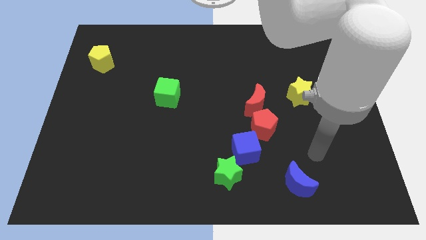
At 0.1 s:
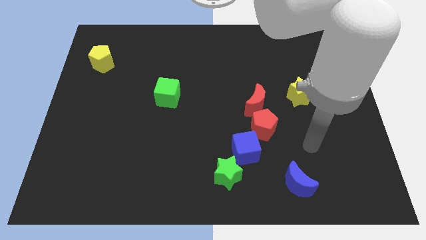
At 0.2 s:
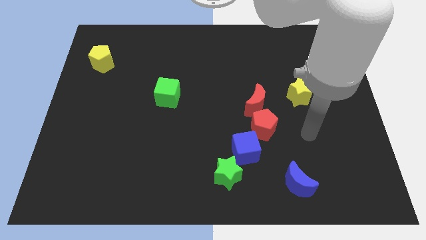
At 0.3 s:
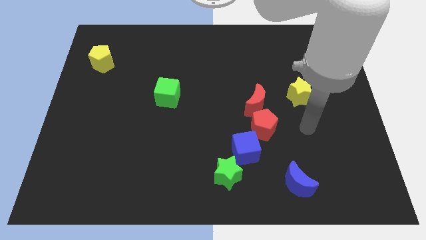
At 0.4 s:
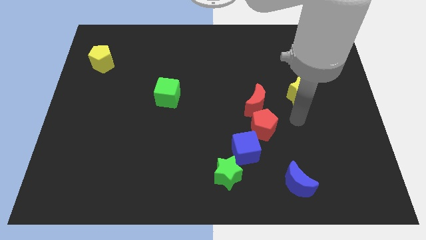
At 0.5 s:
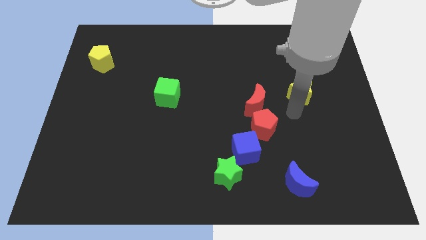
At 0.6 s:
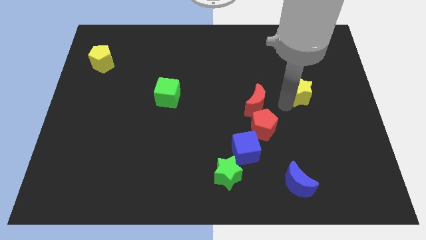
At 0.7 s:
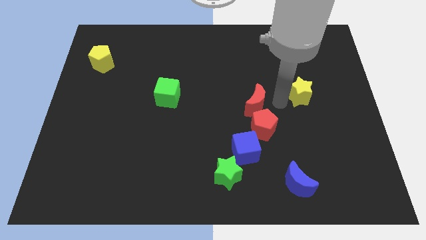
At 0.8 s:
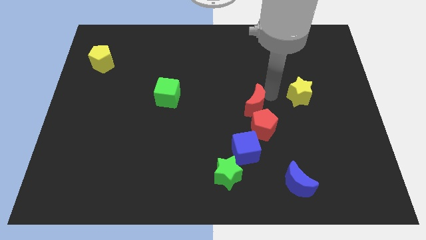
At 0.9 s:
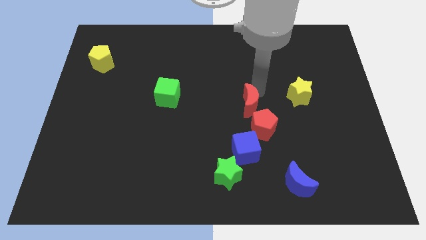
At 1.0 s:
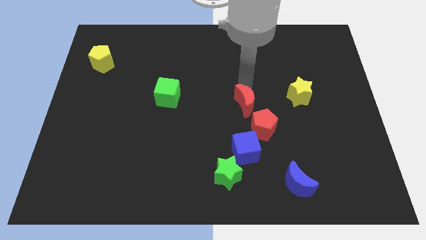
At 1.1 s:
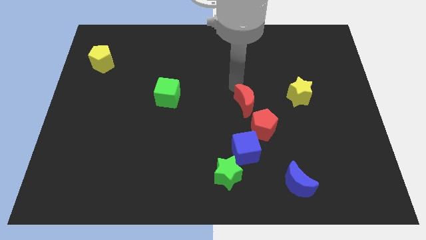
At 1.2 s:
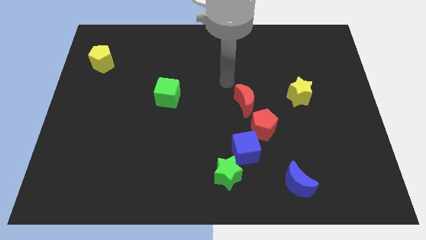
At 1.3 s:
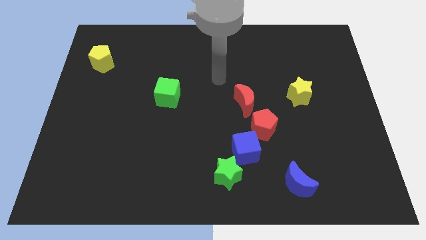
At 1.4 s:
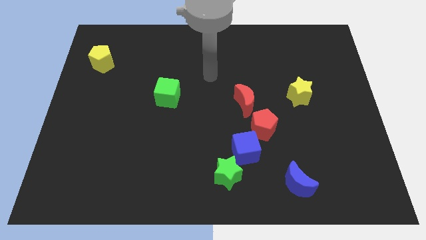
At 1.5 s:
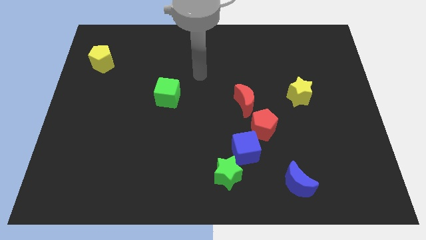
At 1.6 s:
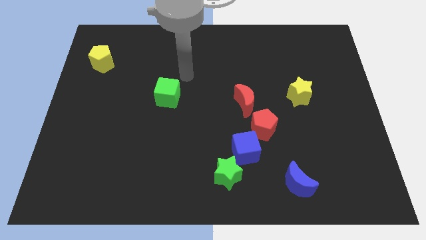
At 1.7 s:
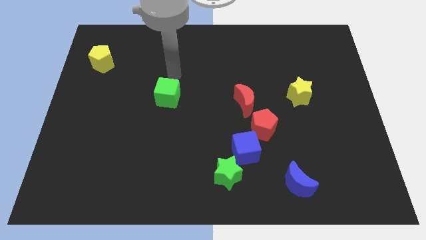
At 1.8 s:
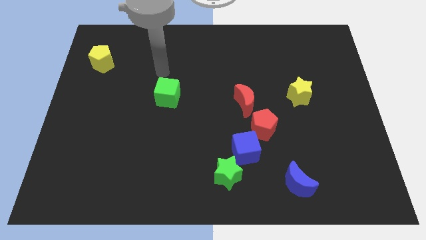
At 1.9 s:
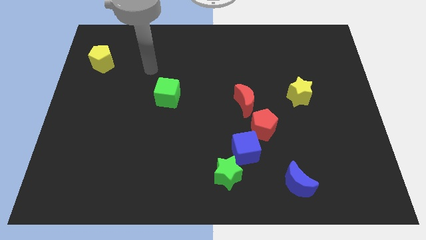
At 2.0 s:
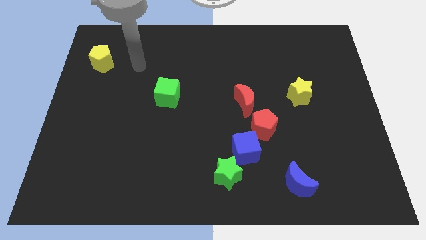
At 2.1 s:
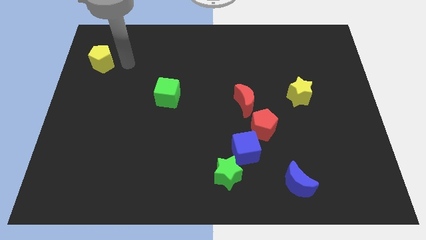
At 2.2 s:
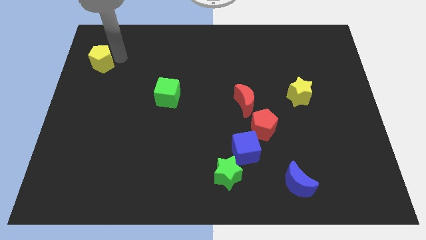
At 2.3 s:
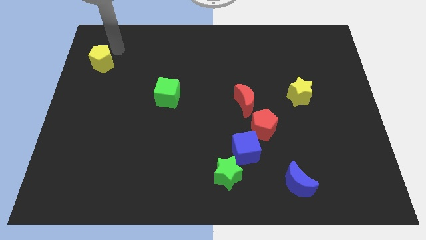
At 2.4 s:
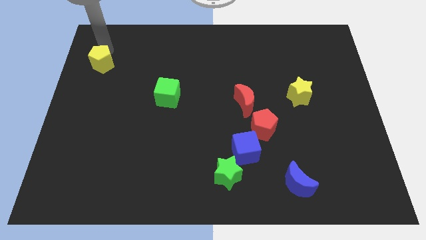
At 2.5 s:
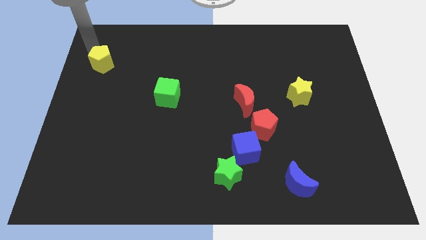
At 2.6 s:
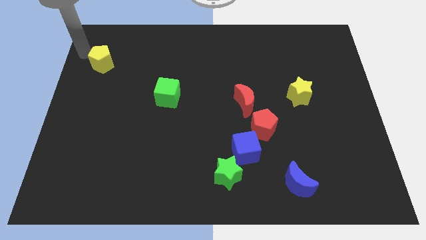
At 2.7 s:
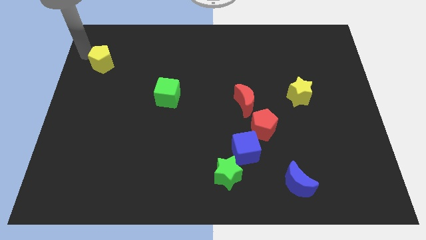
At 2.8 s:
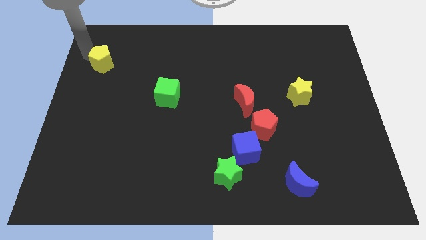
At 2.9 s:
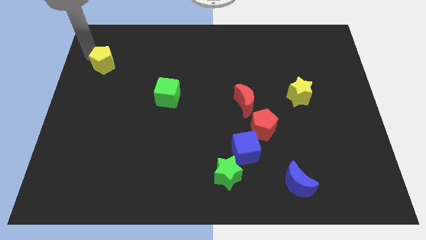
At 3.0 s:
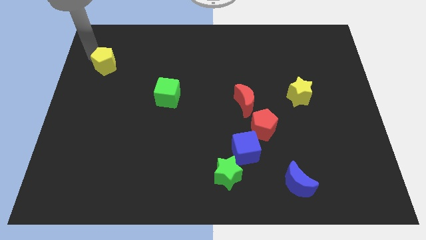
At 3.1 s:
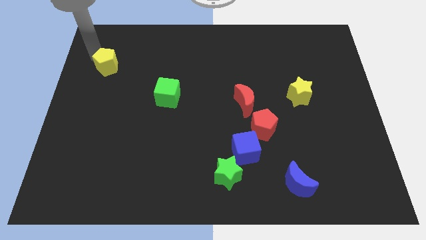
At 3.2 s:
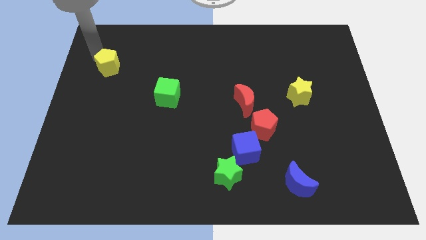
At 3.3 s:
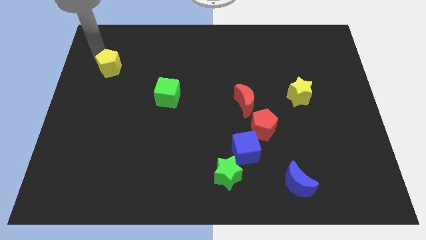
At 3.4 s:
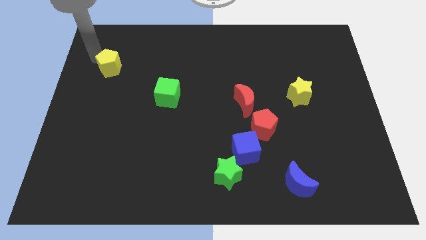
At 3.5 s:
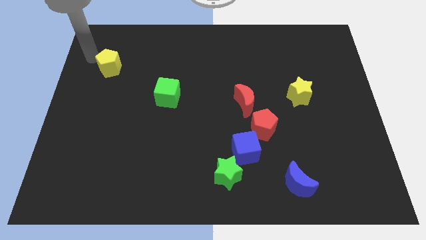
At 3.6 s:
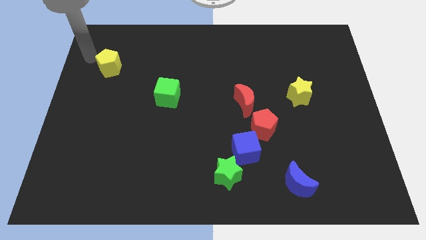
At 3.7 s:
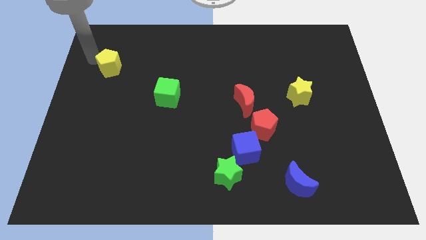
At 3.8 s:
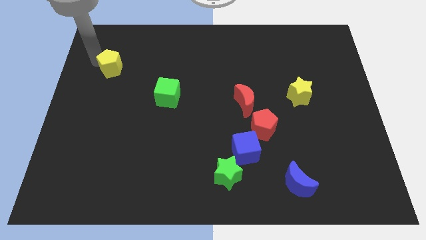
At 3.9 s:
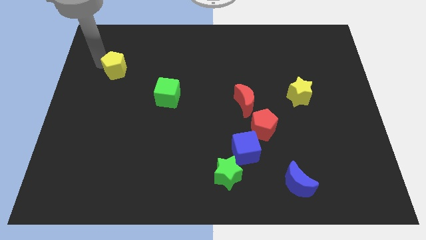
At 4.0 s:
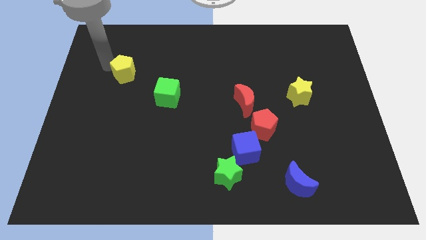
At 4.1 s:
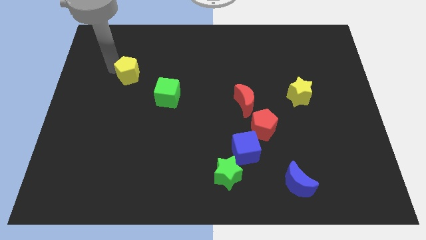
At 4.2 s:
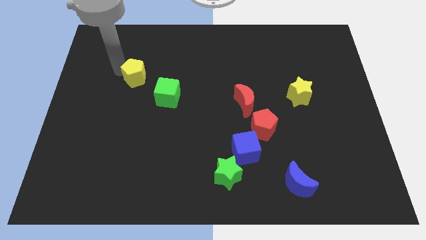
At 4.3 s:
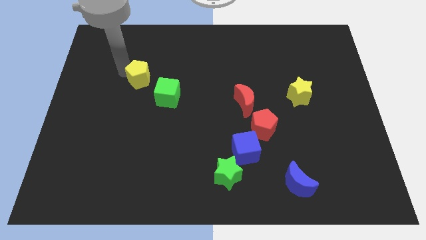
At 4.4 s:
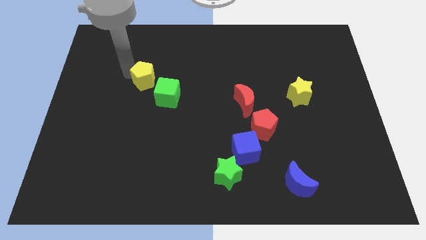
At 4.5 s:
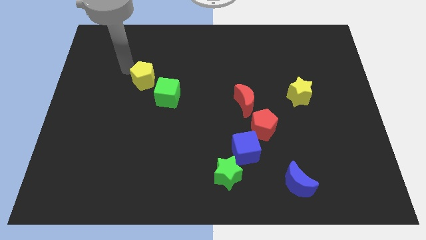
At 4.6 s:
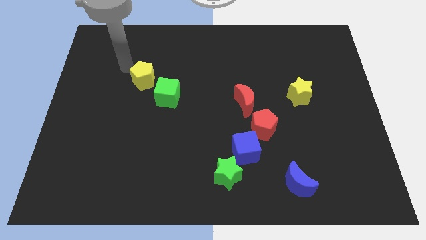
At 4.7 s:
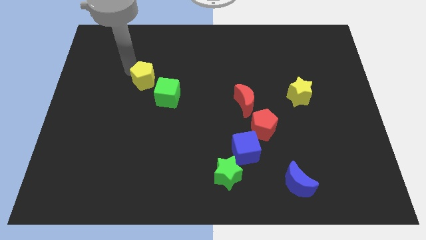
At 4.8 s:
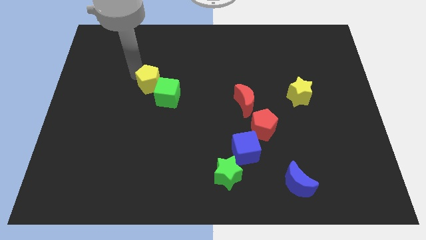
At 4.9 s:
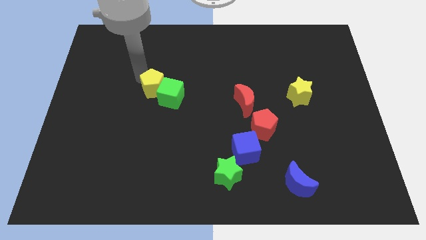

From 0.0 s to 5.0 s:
move the yellow pentagon close to the green cube

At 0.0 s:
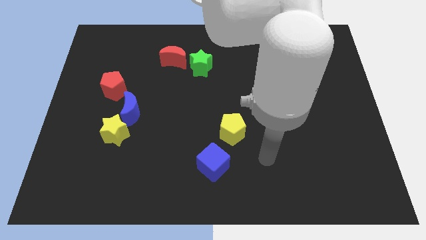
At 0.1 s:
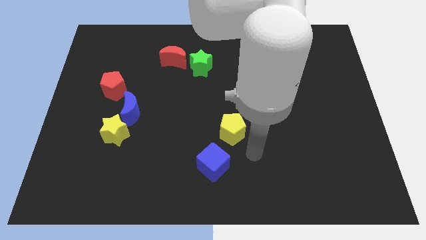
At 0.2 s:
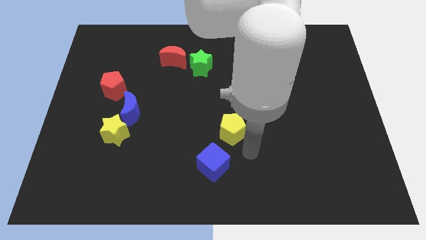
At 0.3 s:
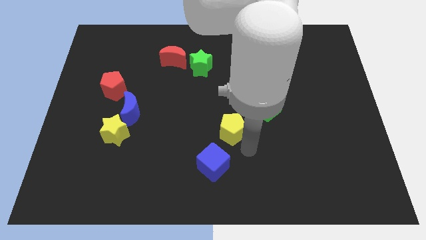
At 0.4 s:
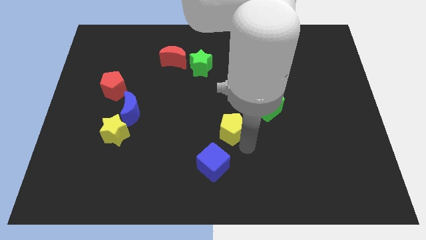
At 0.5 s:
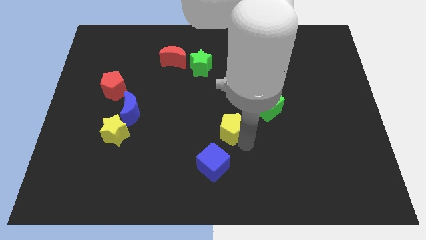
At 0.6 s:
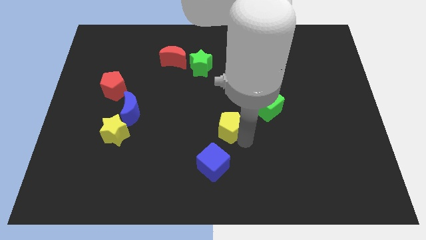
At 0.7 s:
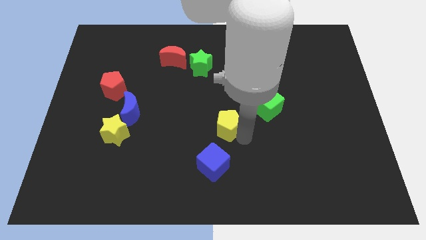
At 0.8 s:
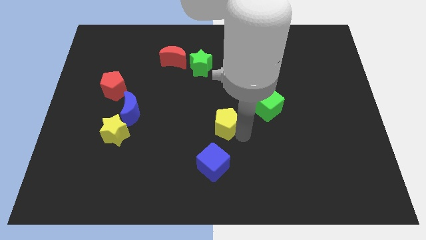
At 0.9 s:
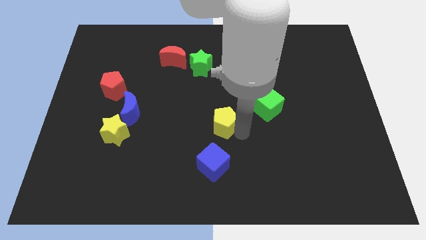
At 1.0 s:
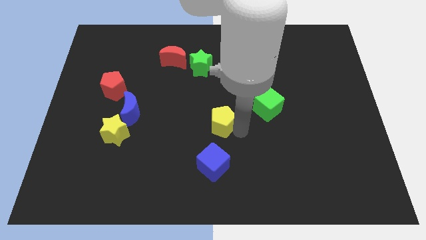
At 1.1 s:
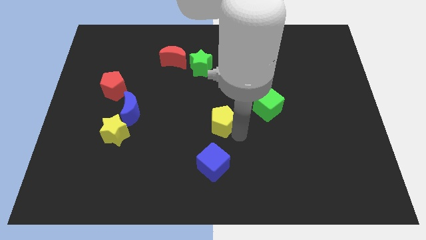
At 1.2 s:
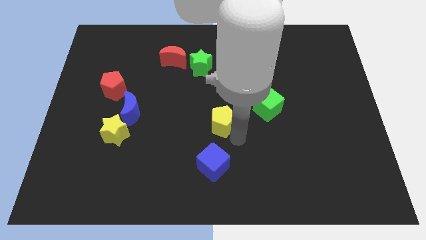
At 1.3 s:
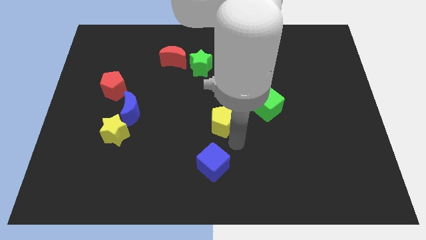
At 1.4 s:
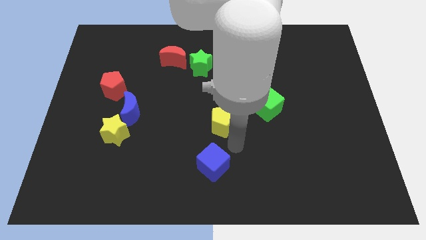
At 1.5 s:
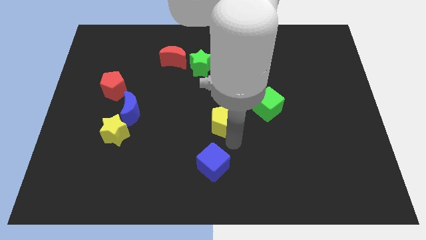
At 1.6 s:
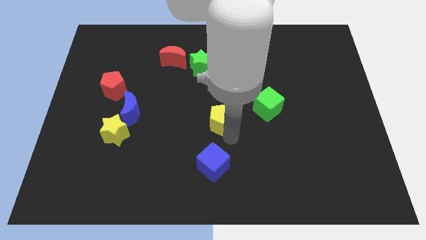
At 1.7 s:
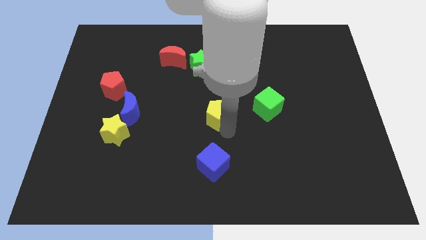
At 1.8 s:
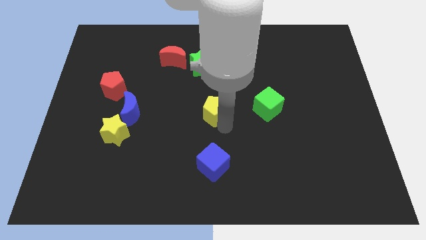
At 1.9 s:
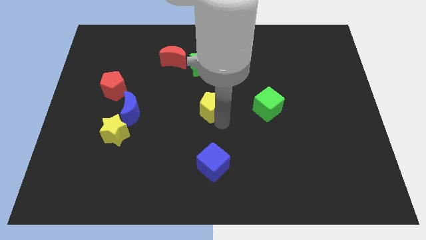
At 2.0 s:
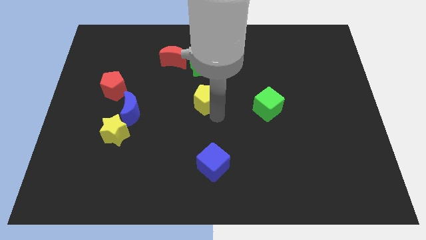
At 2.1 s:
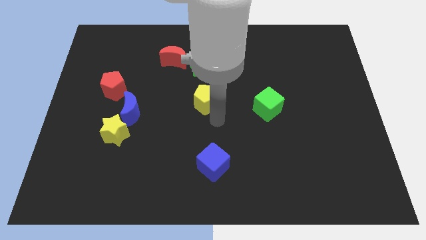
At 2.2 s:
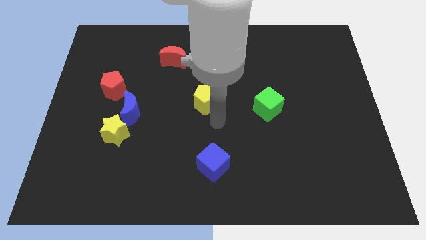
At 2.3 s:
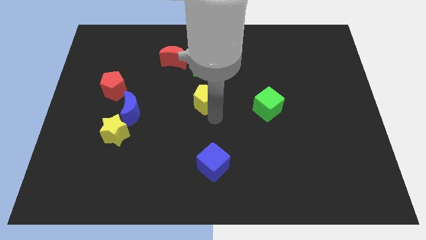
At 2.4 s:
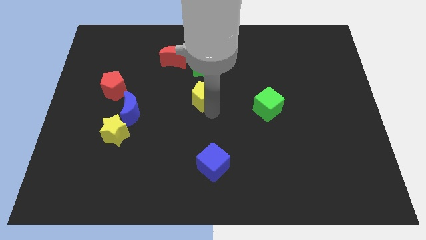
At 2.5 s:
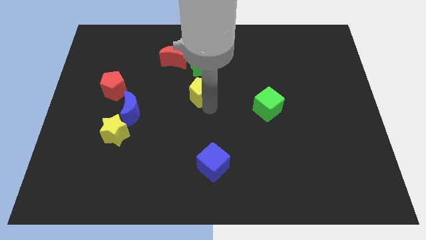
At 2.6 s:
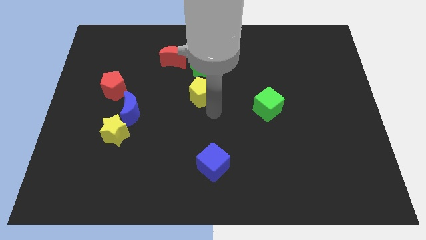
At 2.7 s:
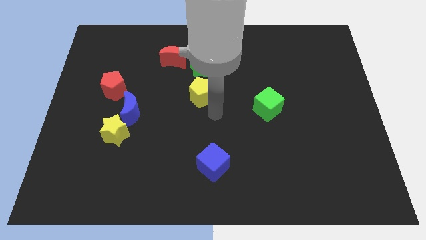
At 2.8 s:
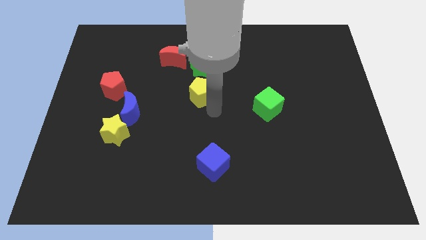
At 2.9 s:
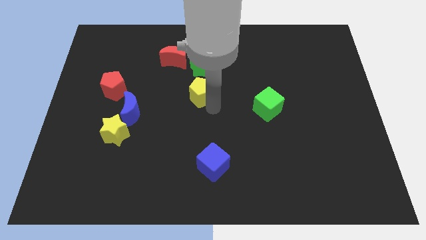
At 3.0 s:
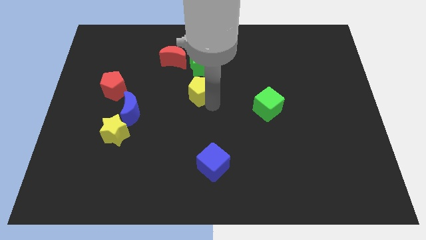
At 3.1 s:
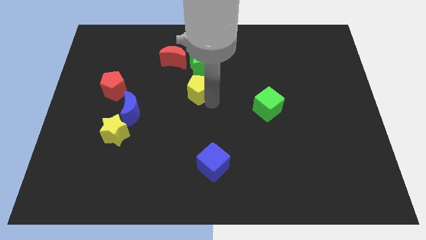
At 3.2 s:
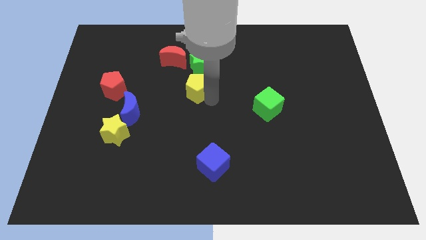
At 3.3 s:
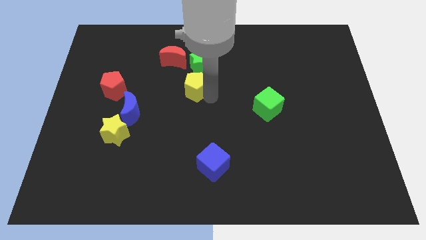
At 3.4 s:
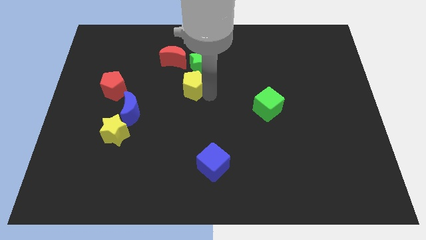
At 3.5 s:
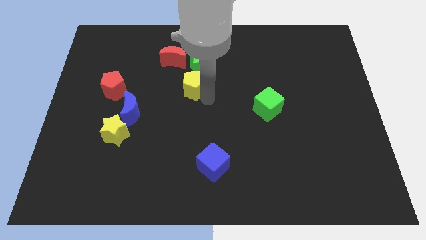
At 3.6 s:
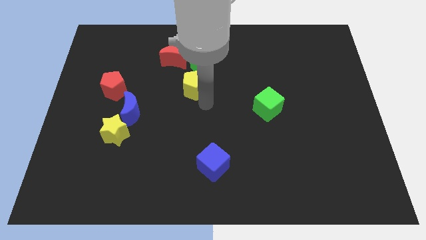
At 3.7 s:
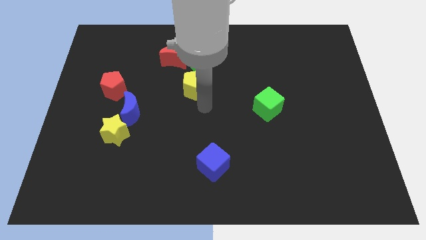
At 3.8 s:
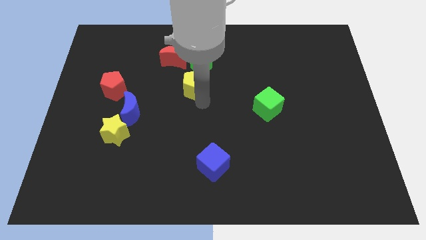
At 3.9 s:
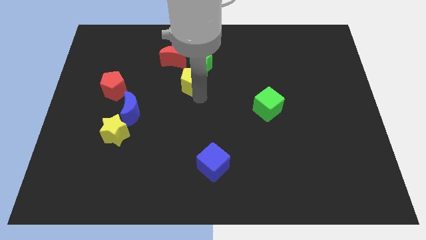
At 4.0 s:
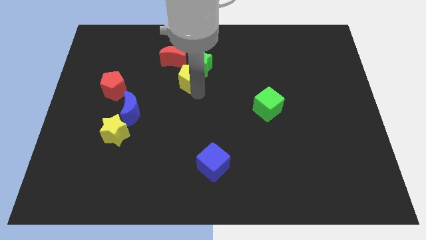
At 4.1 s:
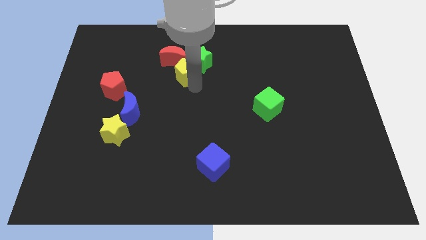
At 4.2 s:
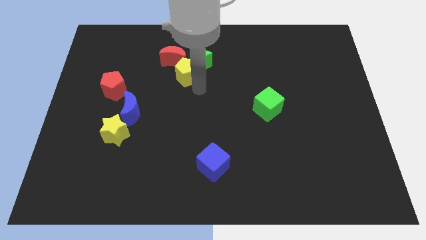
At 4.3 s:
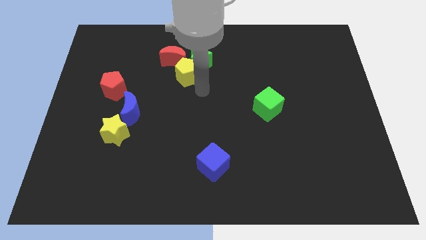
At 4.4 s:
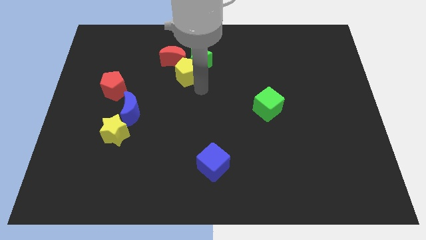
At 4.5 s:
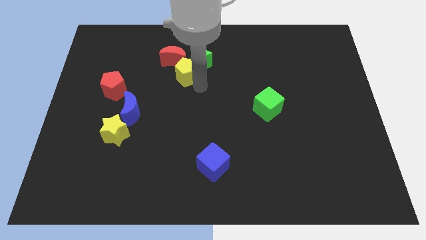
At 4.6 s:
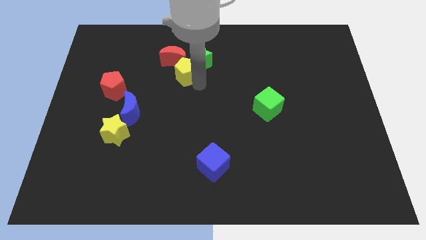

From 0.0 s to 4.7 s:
slide the yellow pentagon next to the red moon
